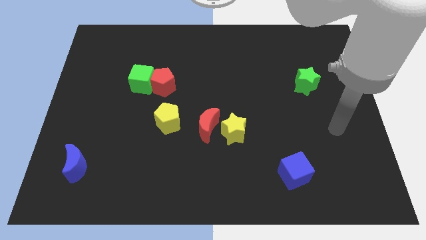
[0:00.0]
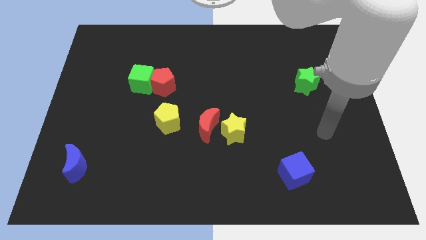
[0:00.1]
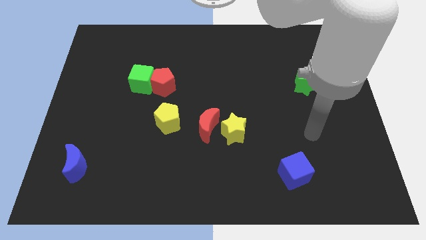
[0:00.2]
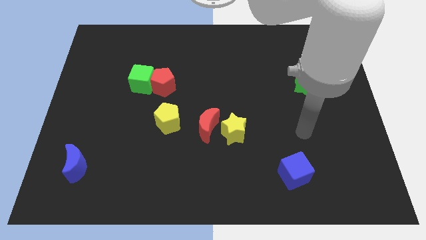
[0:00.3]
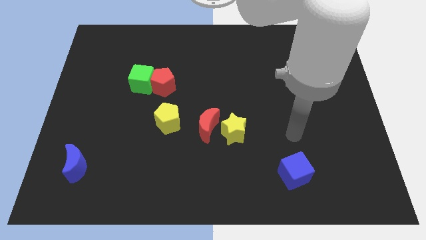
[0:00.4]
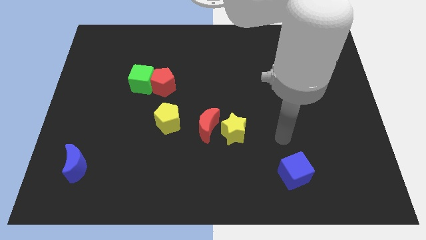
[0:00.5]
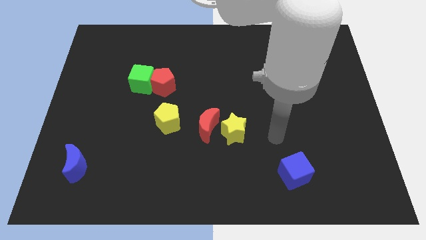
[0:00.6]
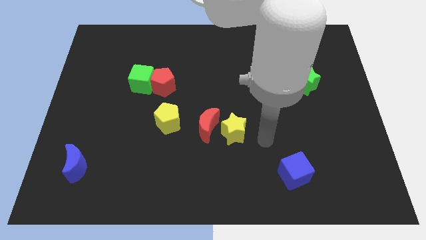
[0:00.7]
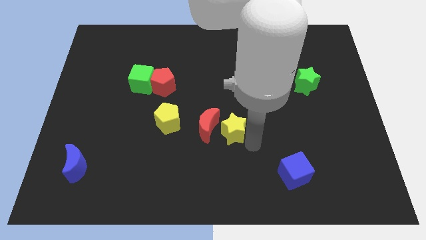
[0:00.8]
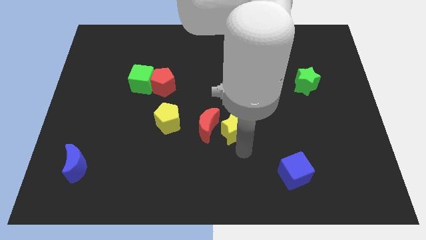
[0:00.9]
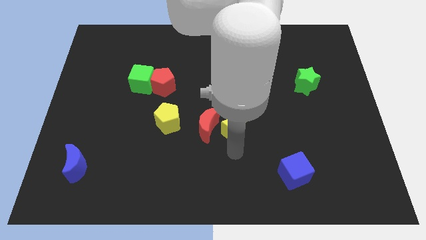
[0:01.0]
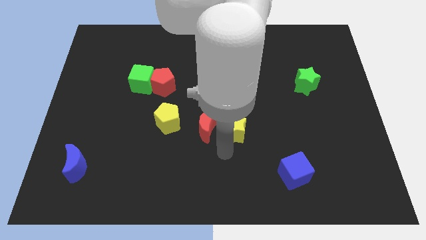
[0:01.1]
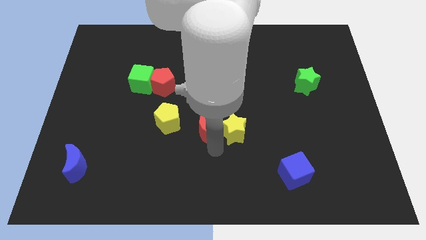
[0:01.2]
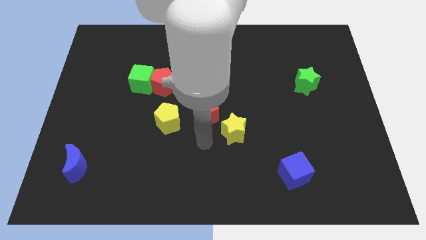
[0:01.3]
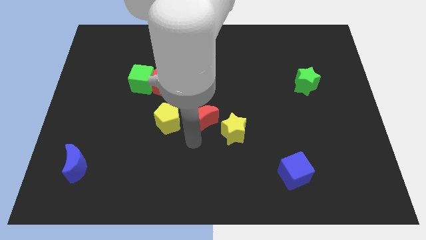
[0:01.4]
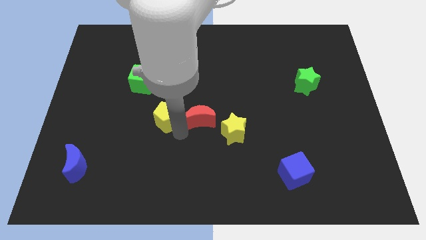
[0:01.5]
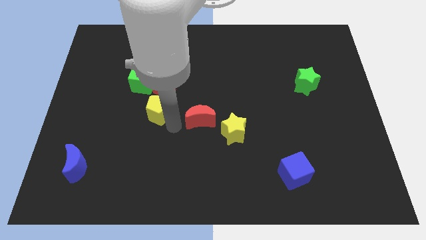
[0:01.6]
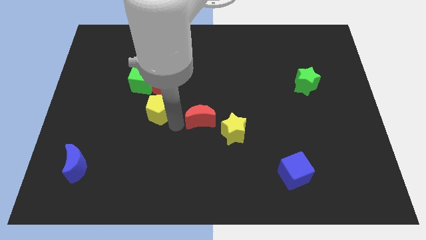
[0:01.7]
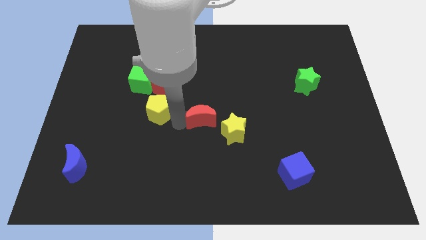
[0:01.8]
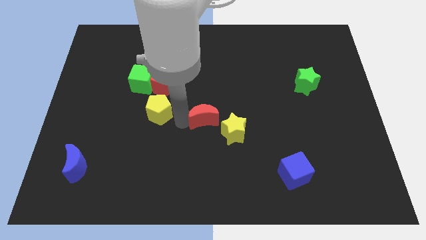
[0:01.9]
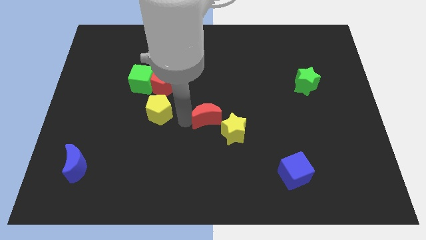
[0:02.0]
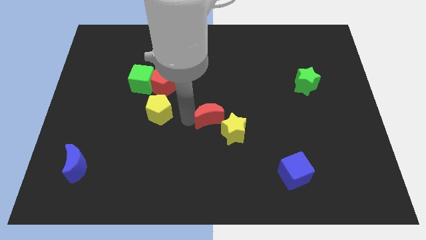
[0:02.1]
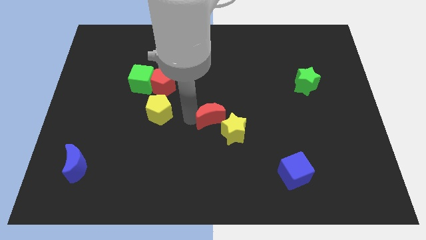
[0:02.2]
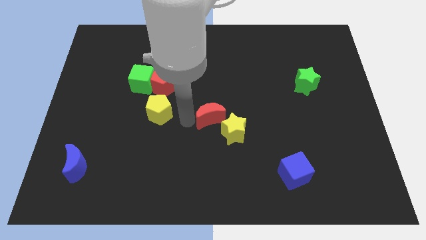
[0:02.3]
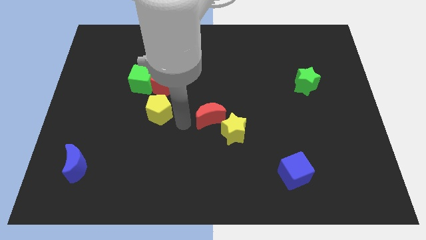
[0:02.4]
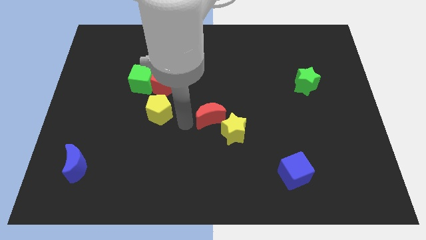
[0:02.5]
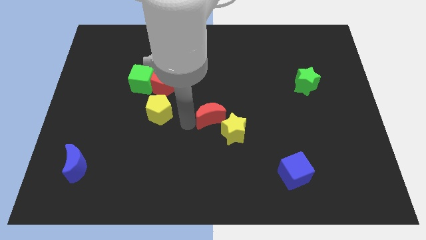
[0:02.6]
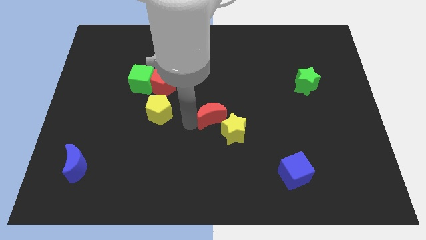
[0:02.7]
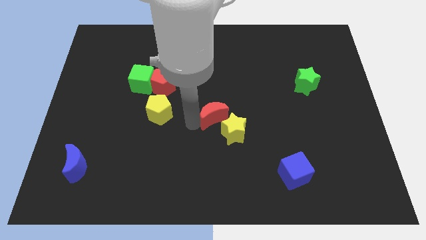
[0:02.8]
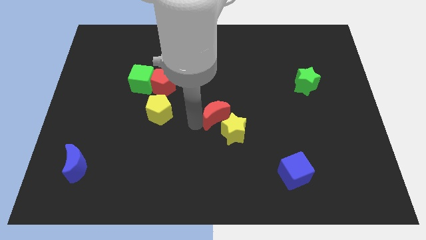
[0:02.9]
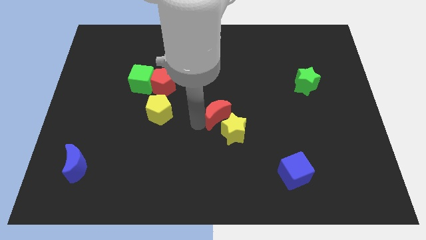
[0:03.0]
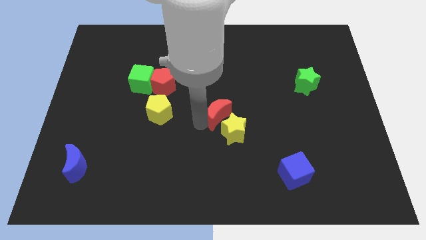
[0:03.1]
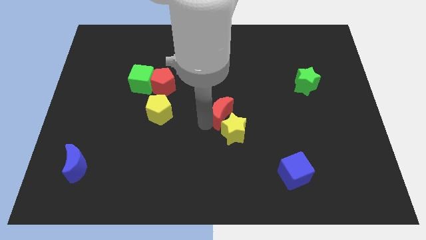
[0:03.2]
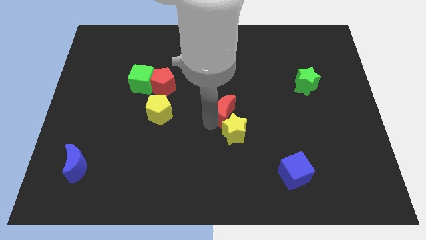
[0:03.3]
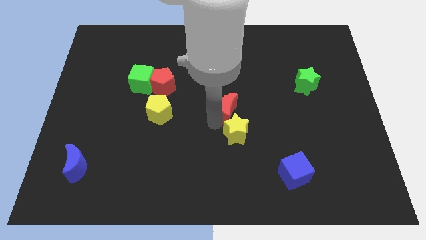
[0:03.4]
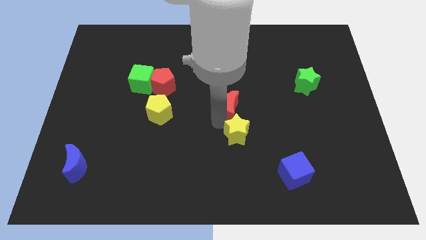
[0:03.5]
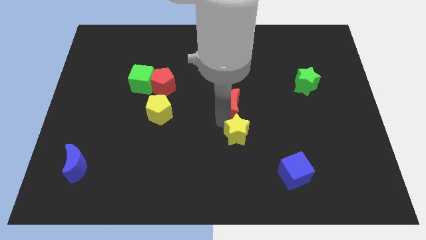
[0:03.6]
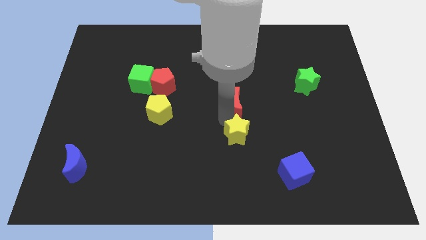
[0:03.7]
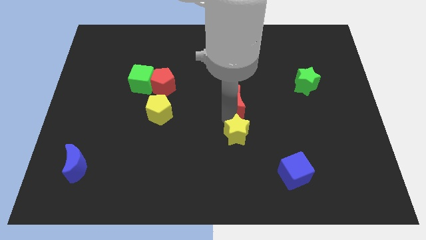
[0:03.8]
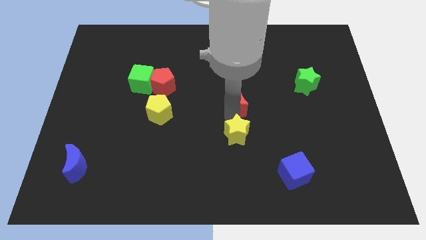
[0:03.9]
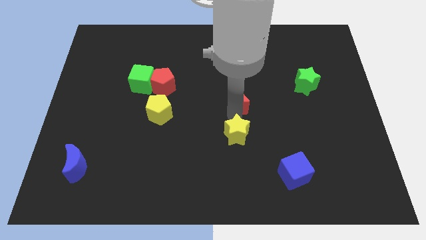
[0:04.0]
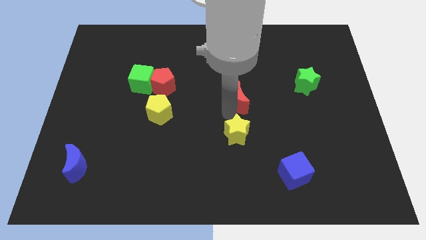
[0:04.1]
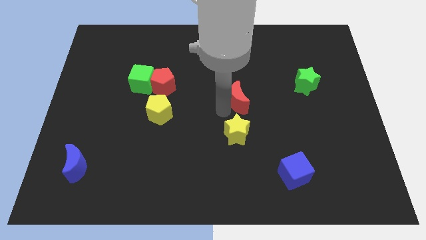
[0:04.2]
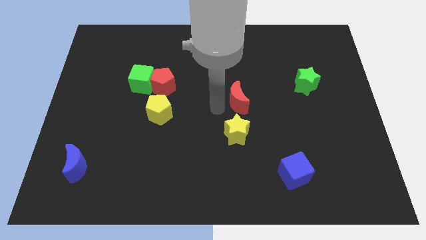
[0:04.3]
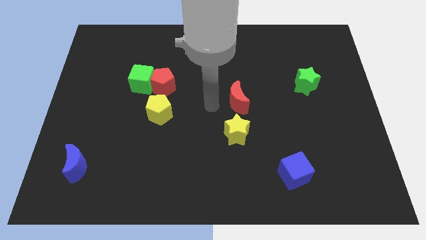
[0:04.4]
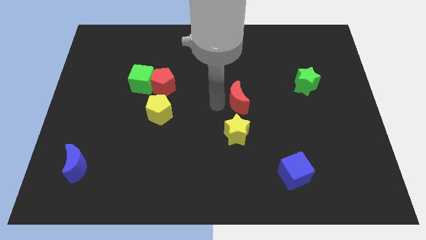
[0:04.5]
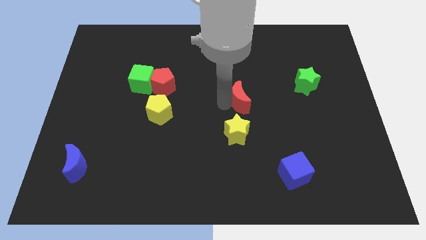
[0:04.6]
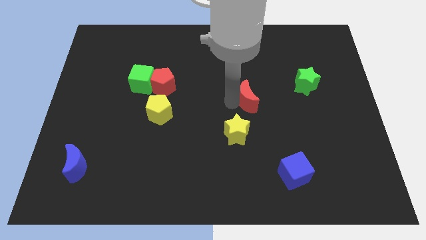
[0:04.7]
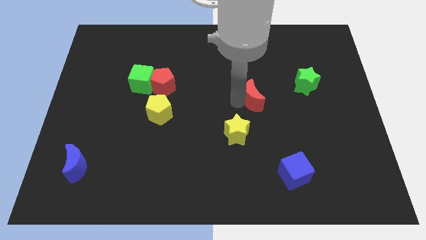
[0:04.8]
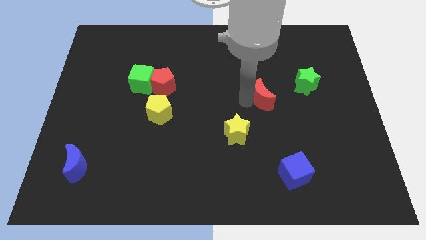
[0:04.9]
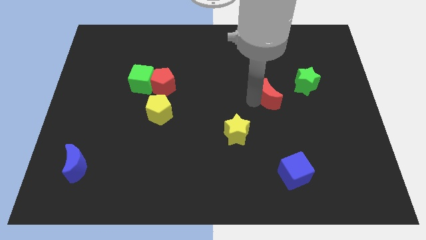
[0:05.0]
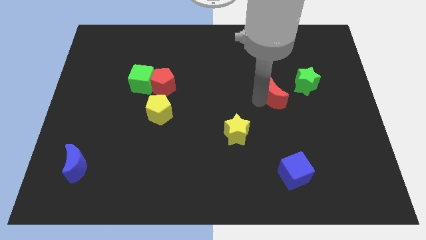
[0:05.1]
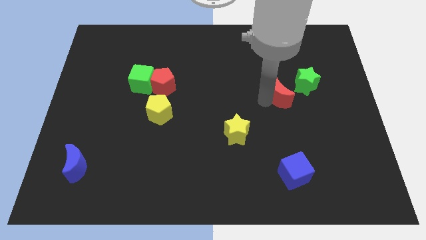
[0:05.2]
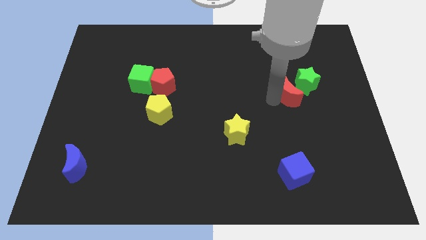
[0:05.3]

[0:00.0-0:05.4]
put the red moon close to the green star

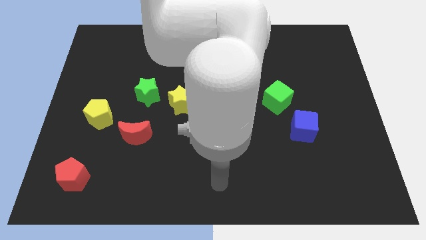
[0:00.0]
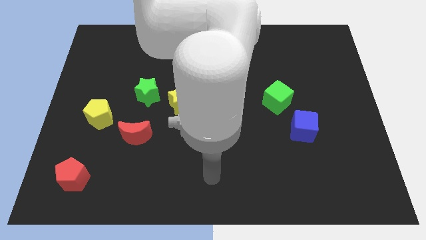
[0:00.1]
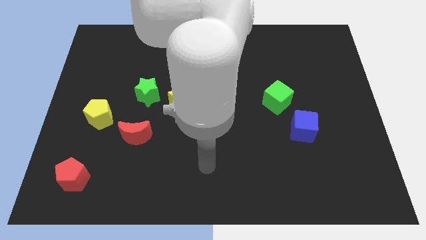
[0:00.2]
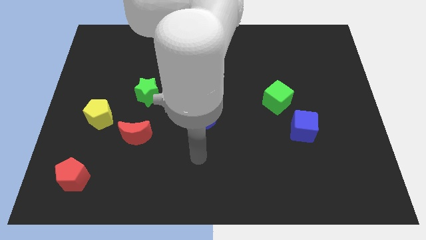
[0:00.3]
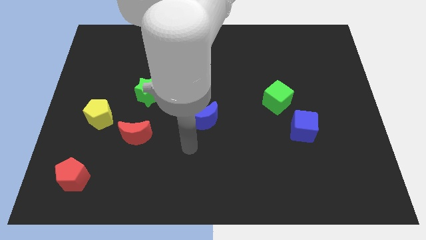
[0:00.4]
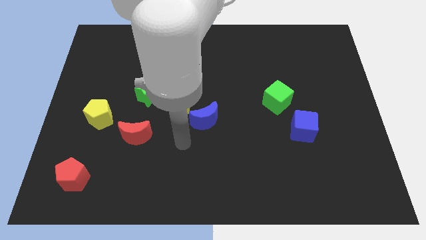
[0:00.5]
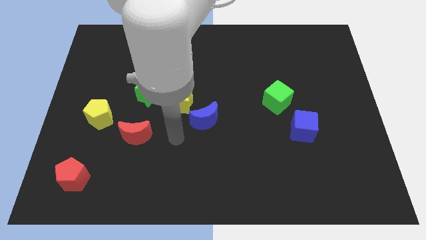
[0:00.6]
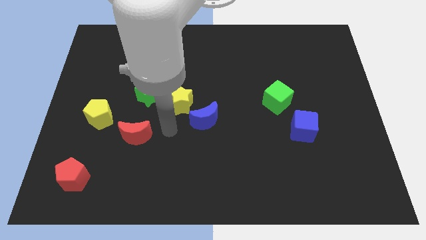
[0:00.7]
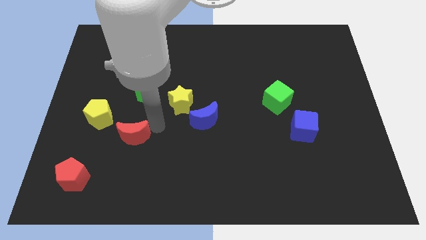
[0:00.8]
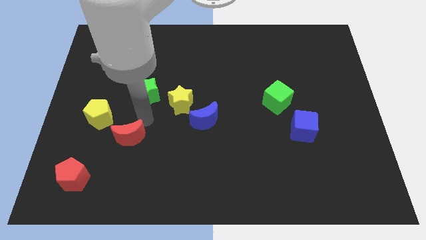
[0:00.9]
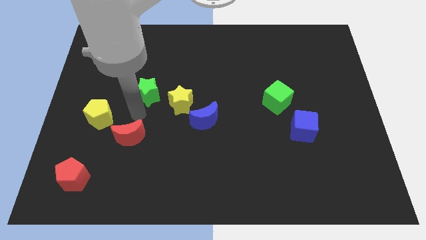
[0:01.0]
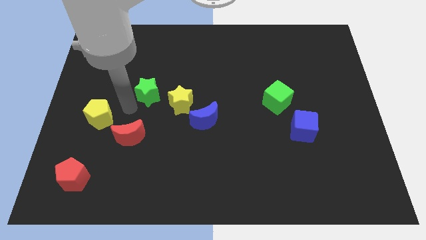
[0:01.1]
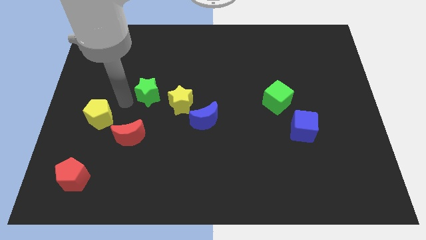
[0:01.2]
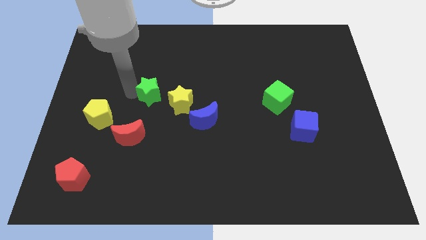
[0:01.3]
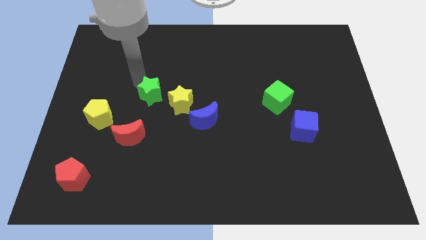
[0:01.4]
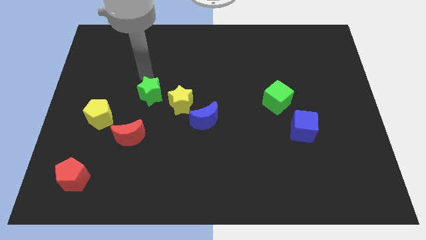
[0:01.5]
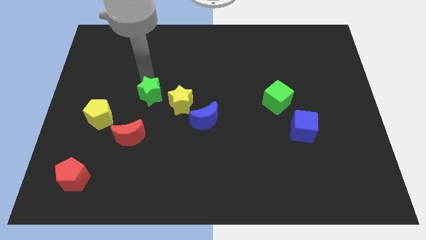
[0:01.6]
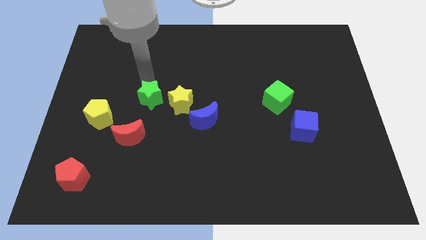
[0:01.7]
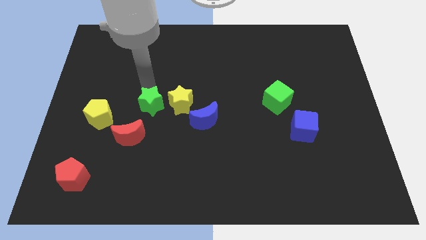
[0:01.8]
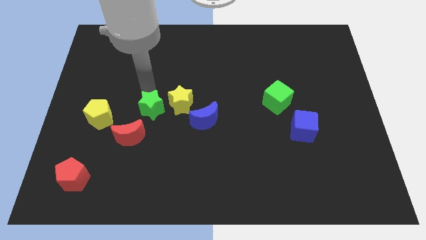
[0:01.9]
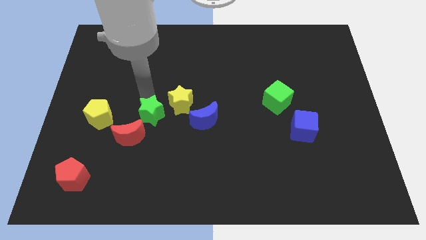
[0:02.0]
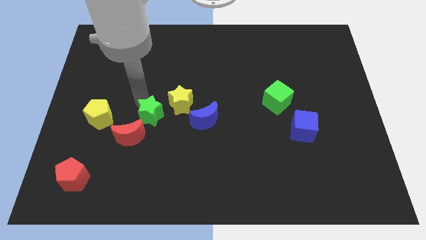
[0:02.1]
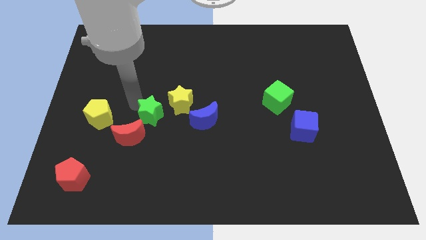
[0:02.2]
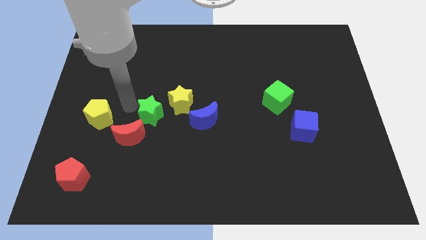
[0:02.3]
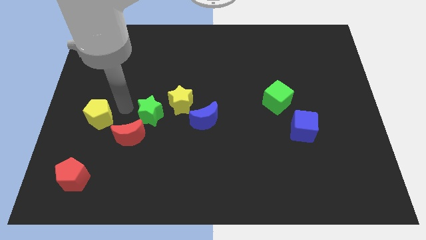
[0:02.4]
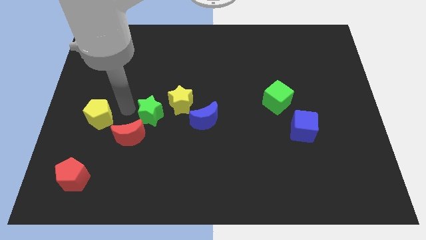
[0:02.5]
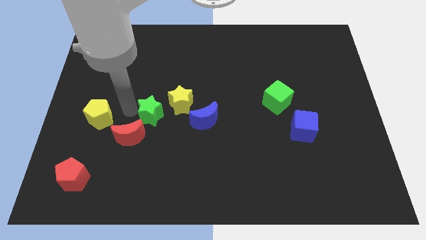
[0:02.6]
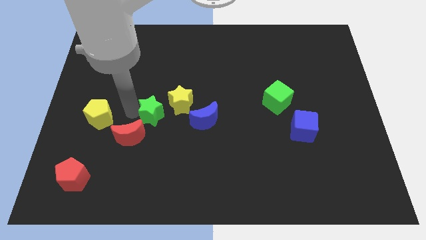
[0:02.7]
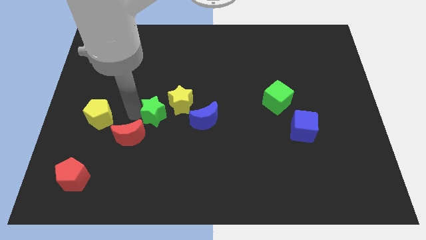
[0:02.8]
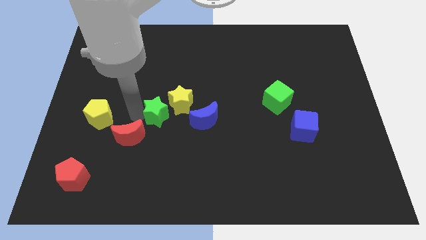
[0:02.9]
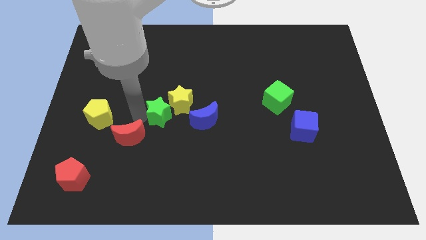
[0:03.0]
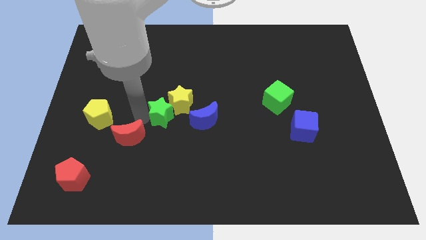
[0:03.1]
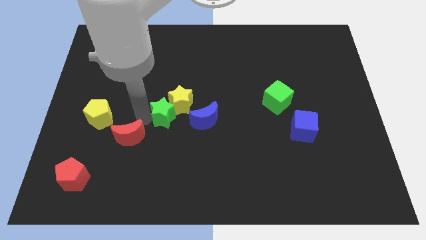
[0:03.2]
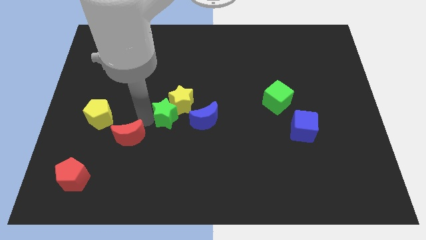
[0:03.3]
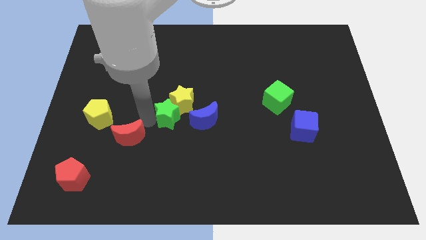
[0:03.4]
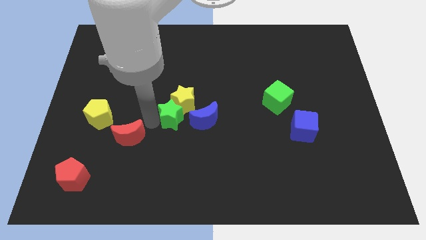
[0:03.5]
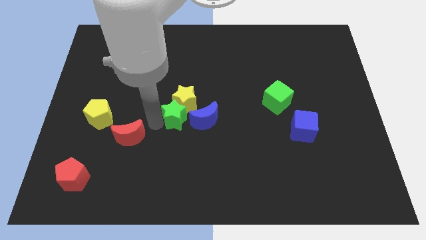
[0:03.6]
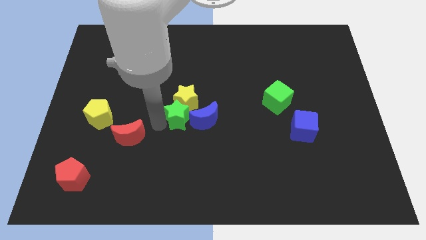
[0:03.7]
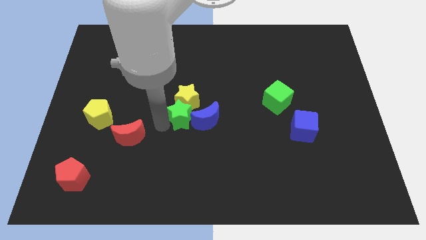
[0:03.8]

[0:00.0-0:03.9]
push the green star close to the blue moon
